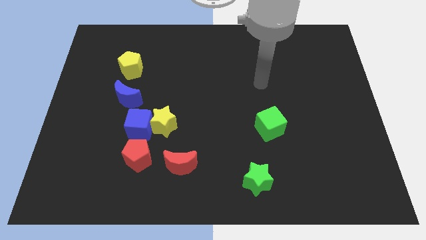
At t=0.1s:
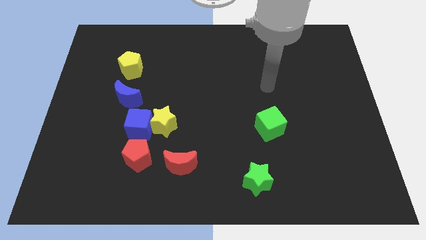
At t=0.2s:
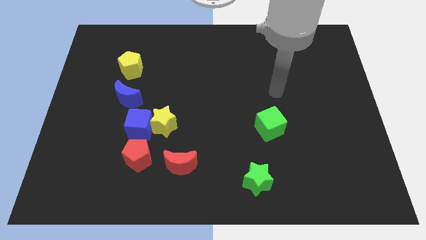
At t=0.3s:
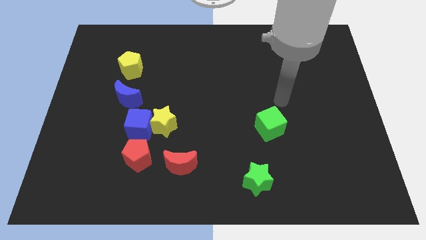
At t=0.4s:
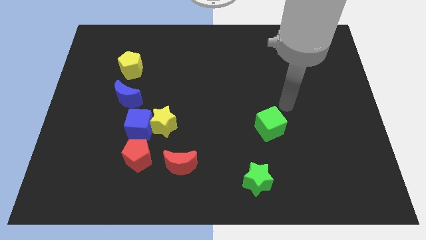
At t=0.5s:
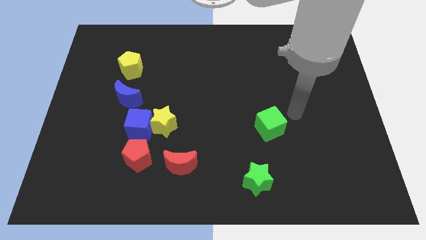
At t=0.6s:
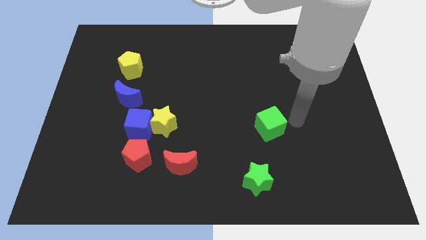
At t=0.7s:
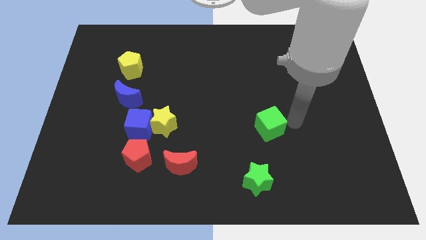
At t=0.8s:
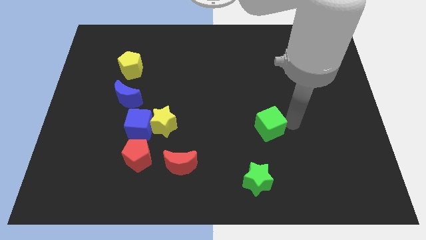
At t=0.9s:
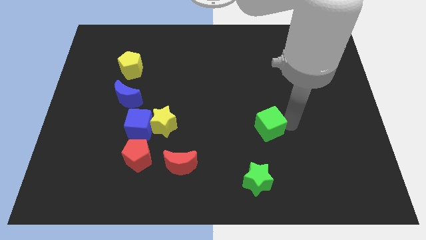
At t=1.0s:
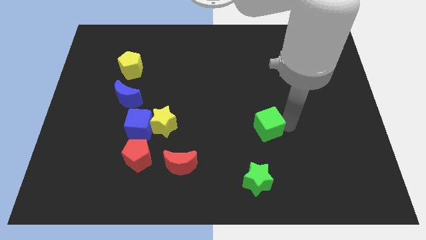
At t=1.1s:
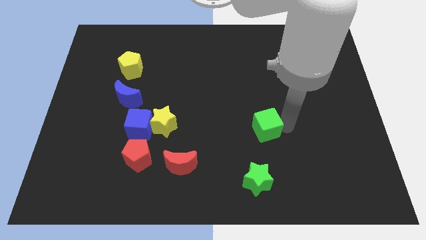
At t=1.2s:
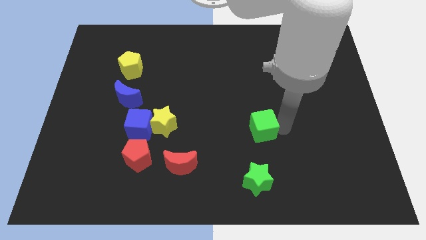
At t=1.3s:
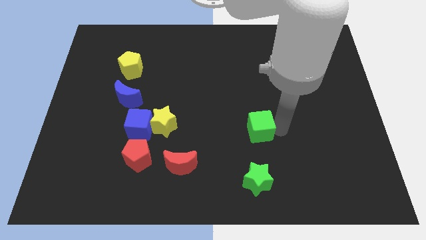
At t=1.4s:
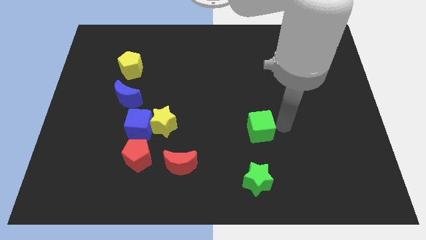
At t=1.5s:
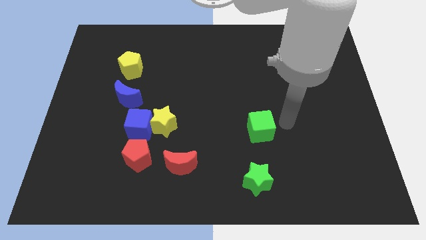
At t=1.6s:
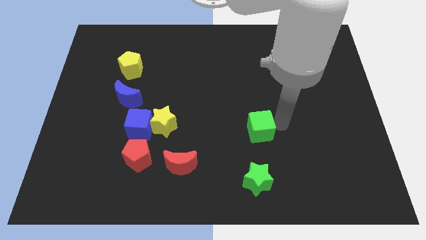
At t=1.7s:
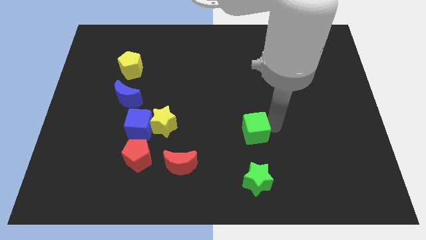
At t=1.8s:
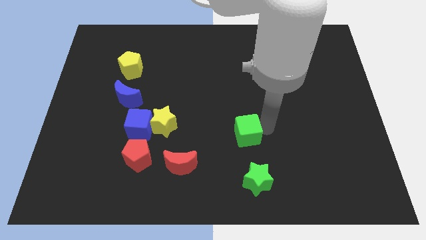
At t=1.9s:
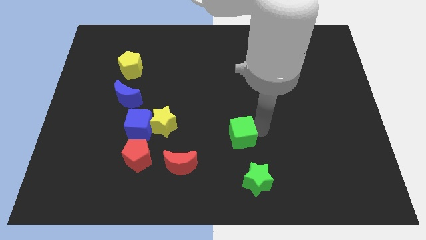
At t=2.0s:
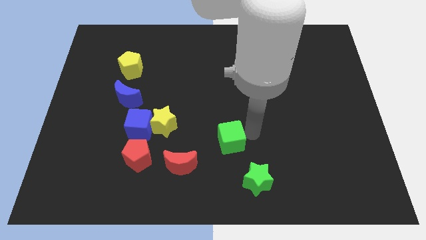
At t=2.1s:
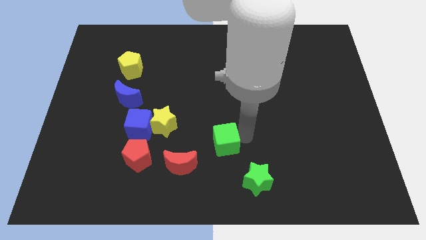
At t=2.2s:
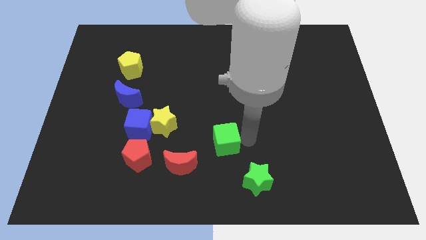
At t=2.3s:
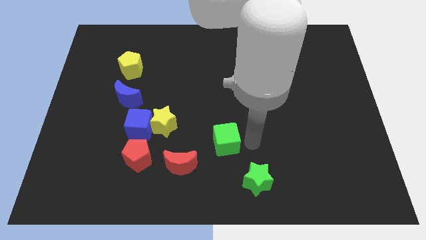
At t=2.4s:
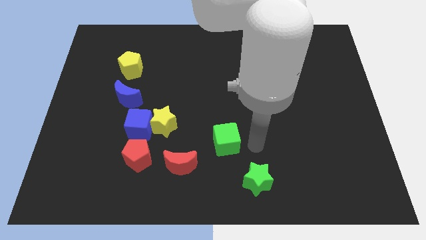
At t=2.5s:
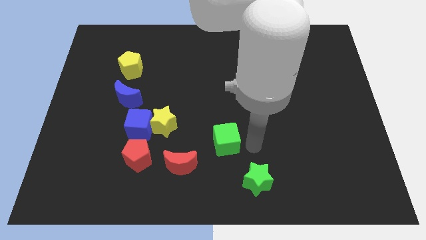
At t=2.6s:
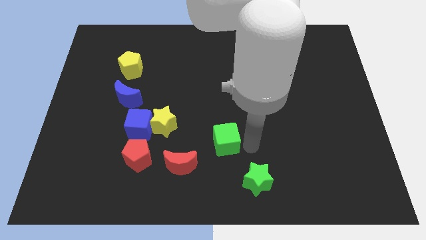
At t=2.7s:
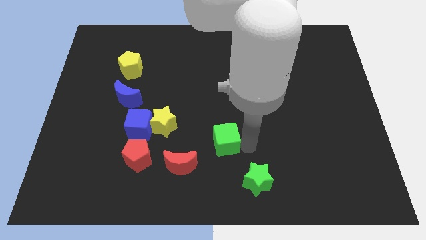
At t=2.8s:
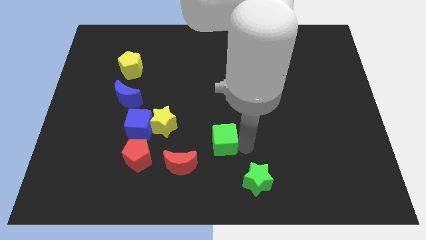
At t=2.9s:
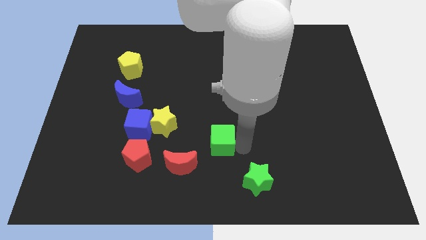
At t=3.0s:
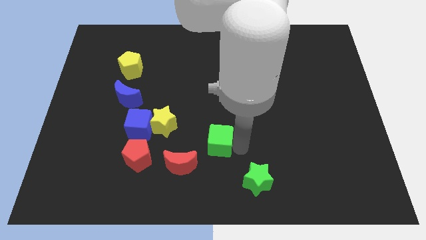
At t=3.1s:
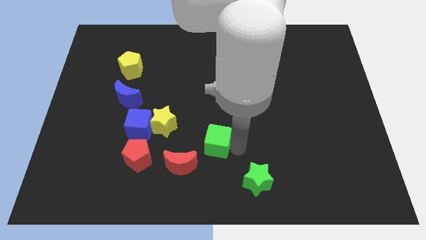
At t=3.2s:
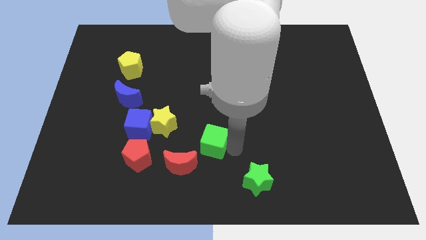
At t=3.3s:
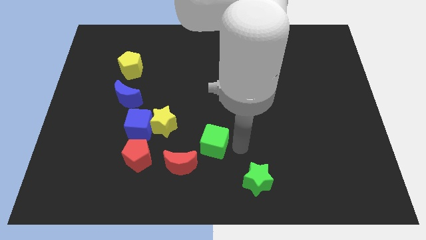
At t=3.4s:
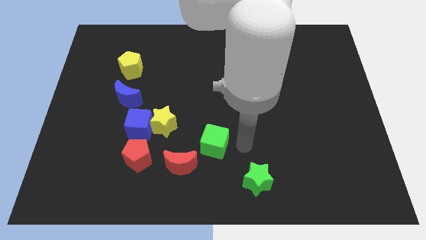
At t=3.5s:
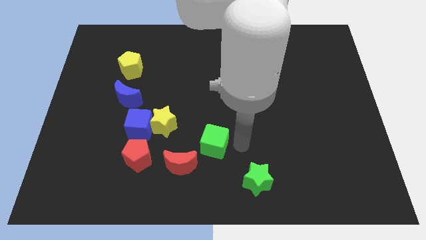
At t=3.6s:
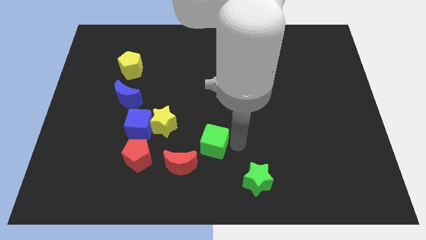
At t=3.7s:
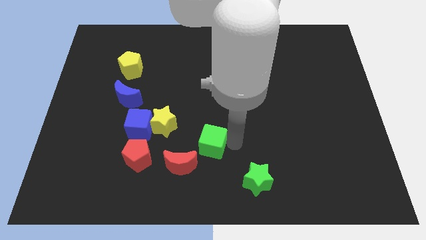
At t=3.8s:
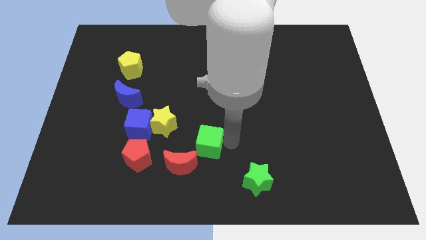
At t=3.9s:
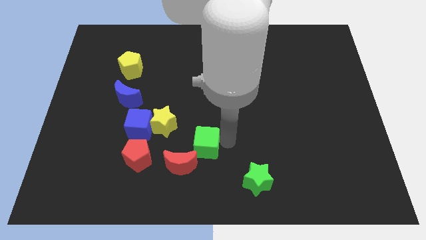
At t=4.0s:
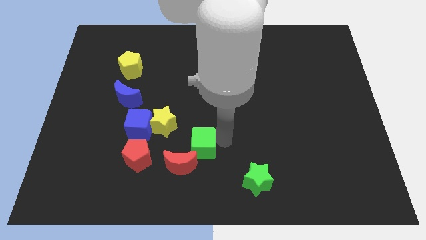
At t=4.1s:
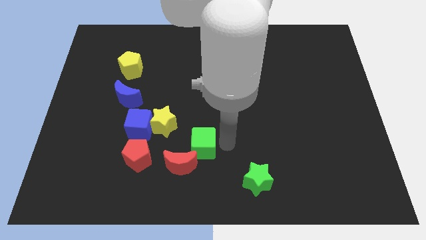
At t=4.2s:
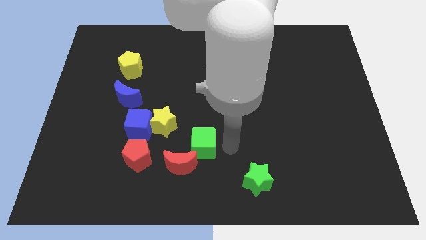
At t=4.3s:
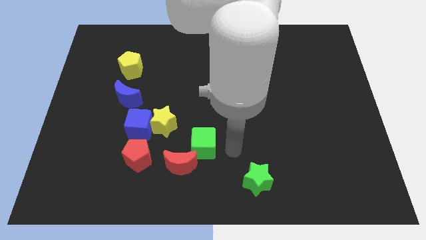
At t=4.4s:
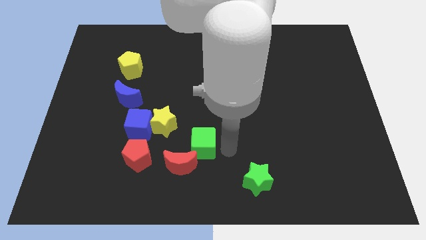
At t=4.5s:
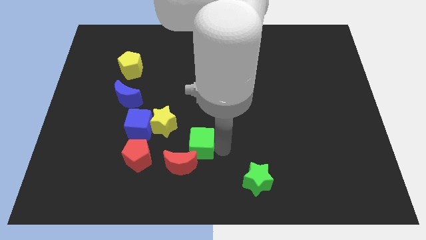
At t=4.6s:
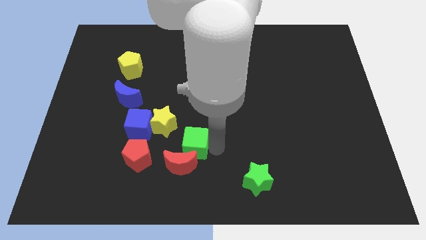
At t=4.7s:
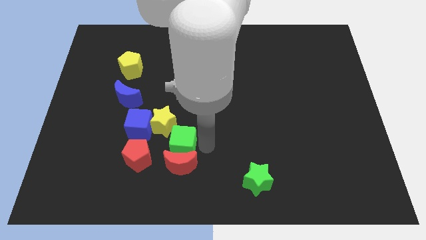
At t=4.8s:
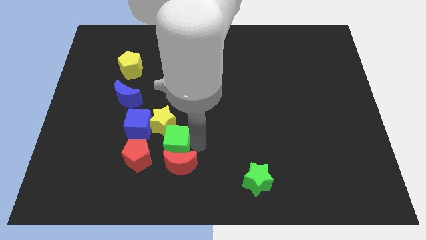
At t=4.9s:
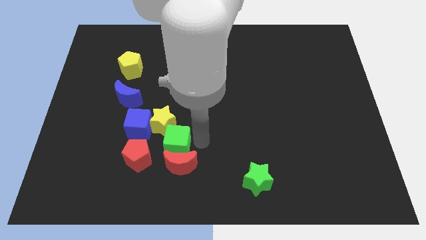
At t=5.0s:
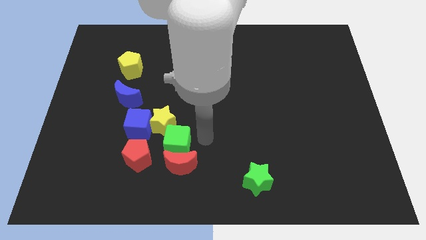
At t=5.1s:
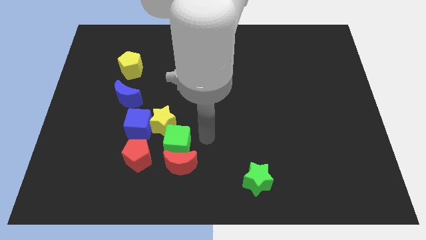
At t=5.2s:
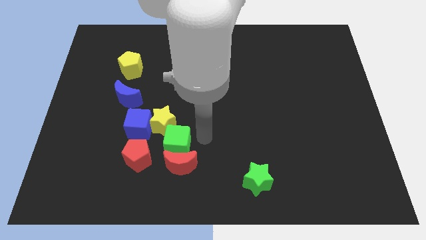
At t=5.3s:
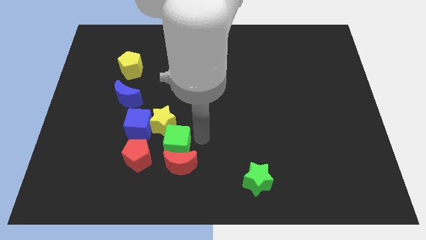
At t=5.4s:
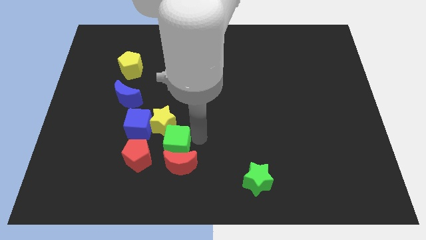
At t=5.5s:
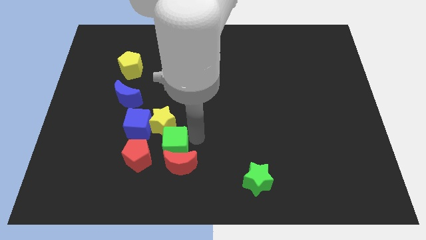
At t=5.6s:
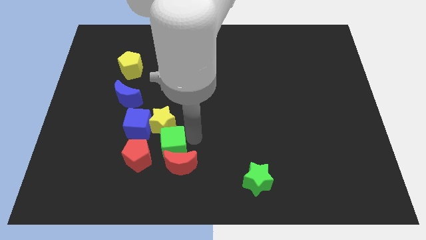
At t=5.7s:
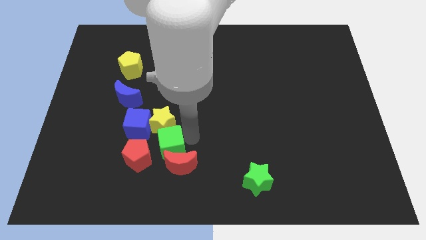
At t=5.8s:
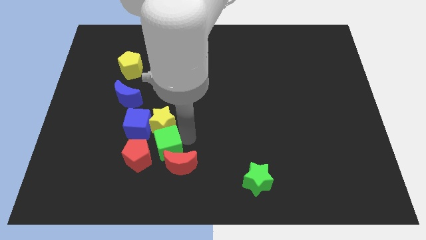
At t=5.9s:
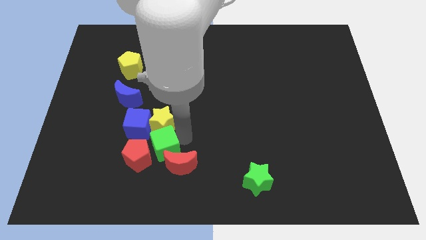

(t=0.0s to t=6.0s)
push the green cube to the red pentagon
